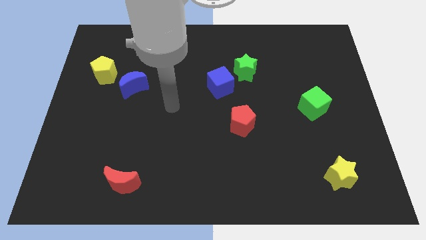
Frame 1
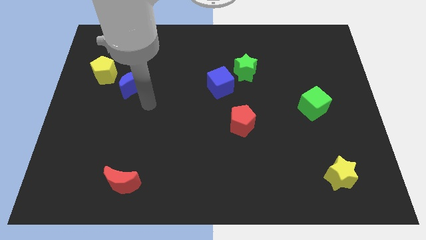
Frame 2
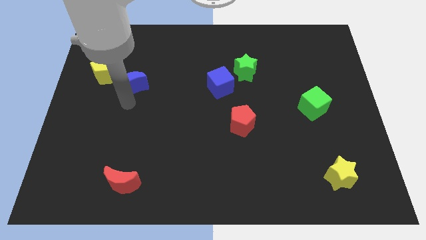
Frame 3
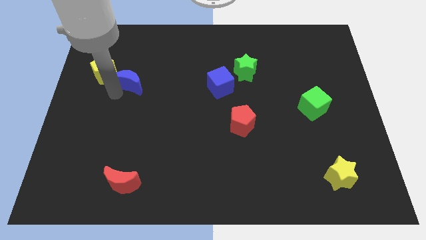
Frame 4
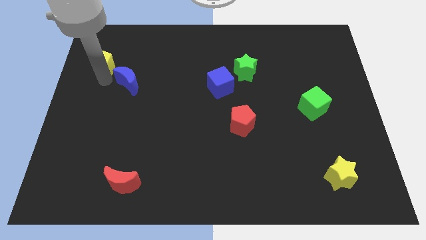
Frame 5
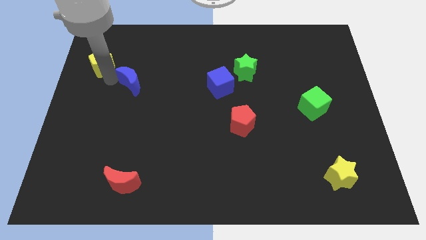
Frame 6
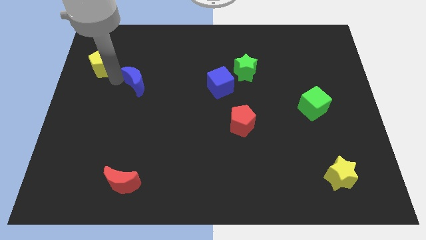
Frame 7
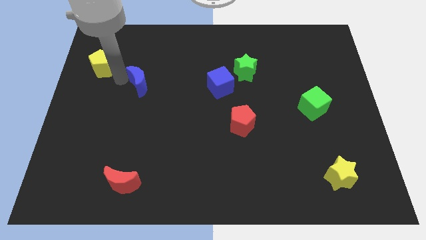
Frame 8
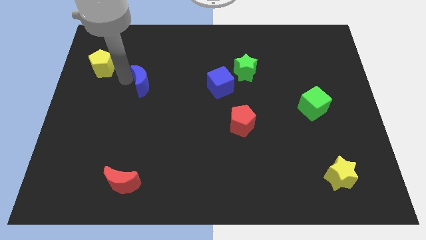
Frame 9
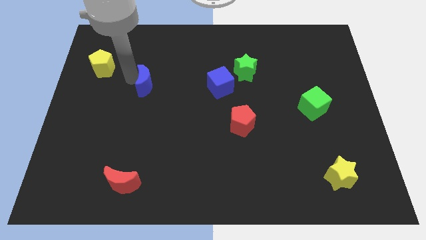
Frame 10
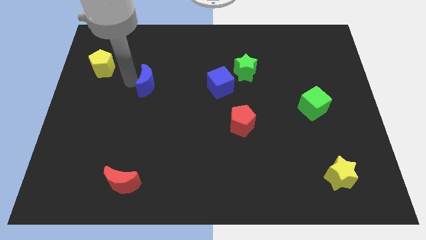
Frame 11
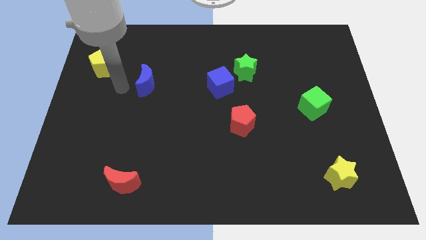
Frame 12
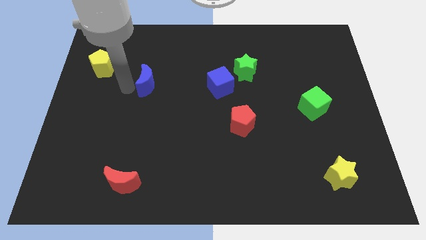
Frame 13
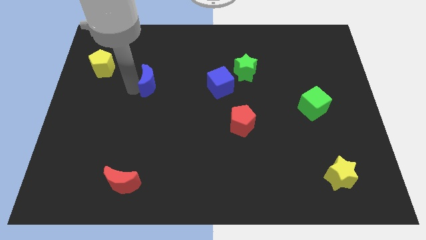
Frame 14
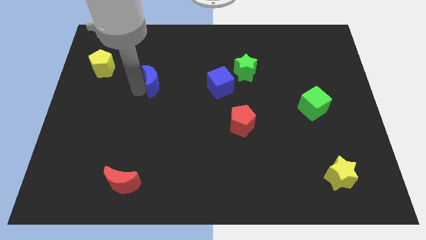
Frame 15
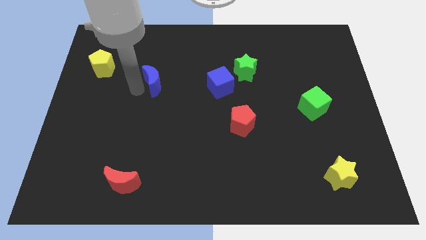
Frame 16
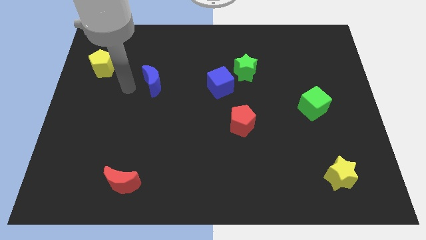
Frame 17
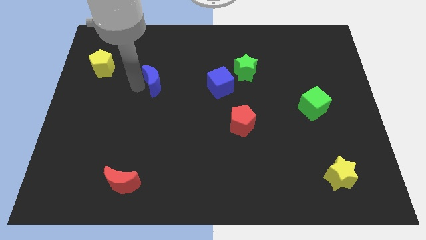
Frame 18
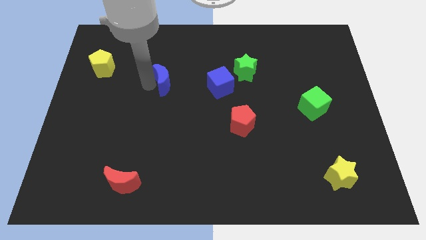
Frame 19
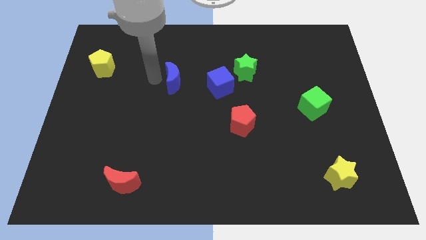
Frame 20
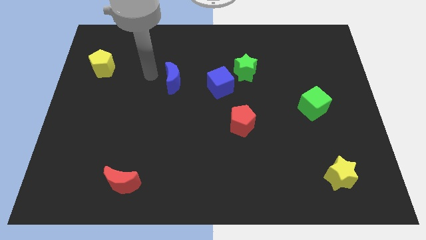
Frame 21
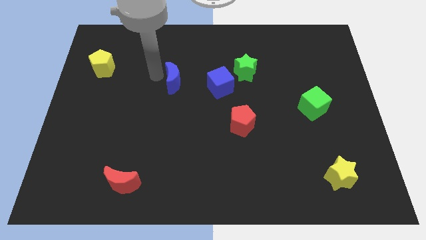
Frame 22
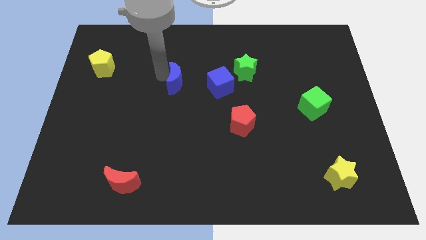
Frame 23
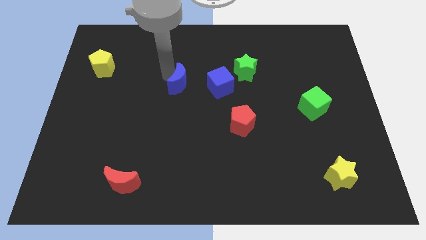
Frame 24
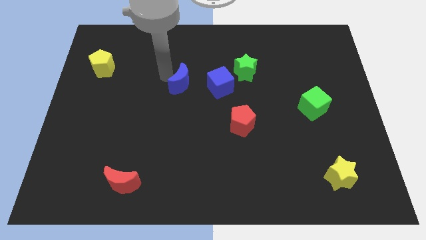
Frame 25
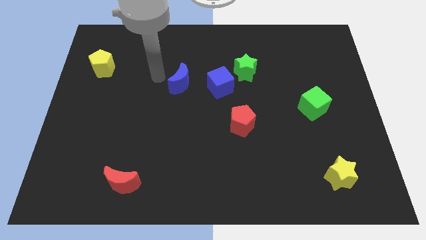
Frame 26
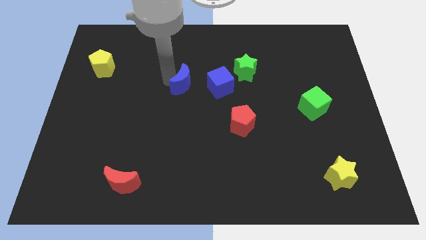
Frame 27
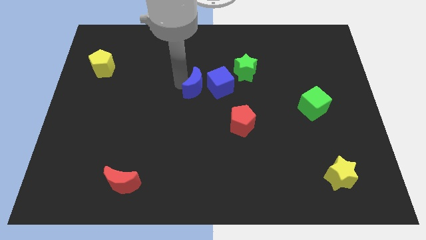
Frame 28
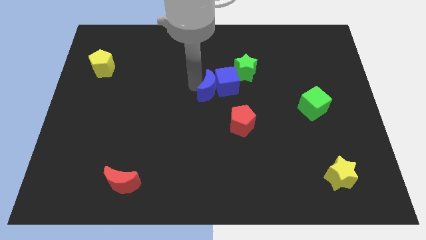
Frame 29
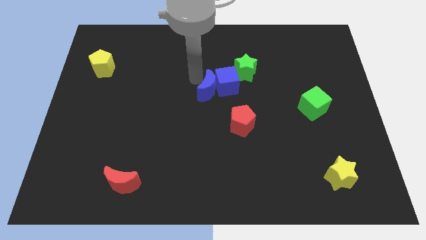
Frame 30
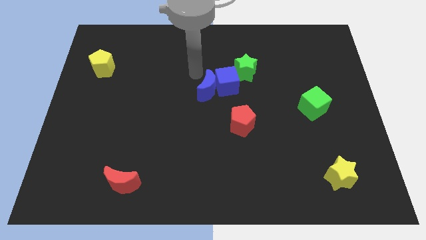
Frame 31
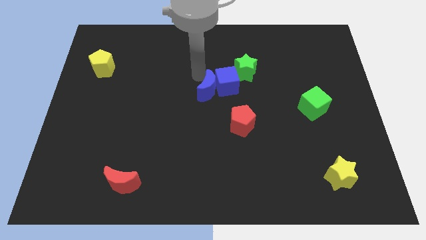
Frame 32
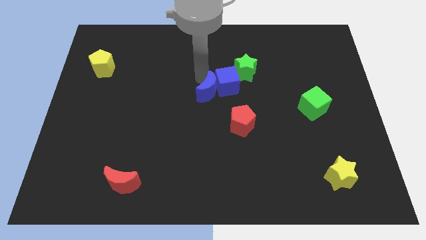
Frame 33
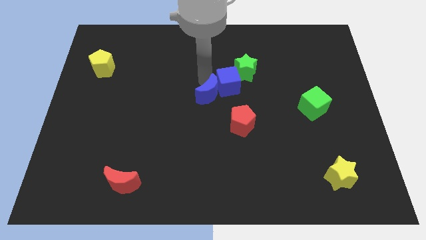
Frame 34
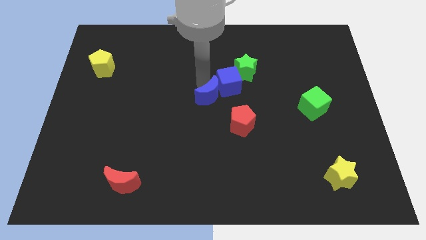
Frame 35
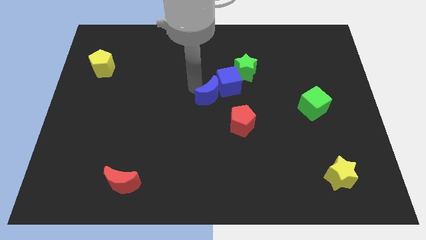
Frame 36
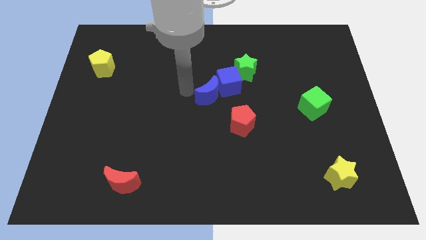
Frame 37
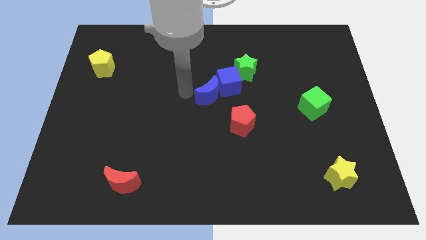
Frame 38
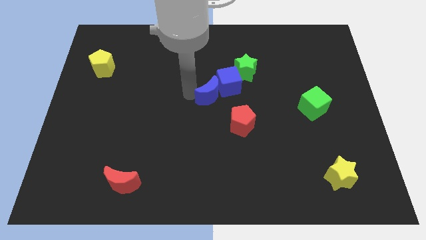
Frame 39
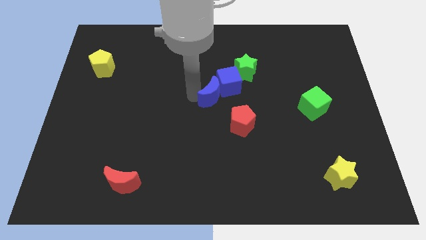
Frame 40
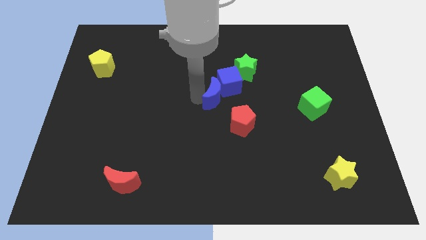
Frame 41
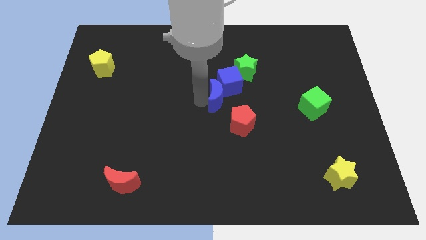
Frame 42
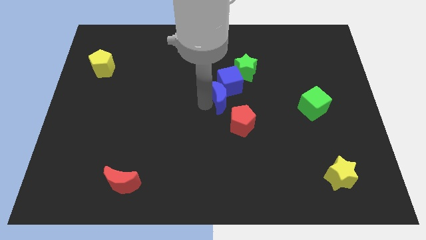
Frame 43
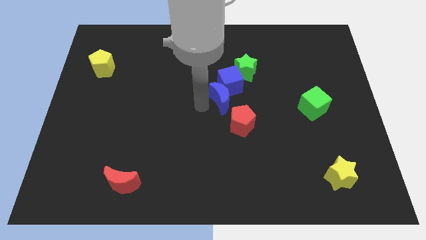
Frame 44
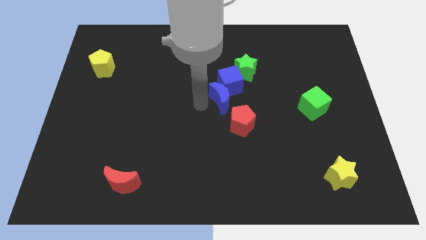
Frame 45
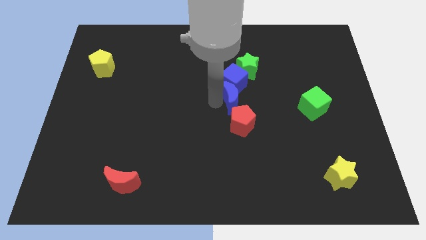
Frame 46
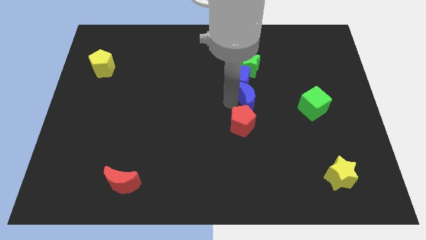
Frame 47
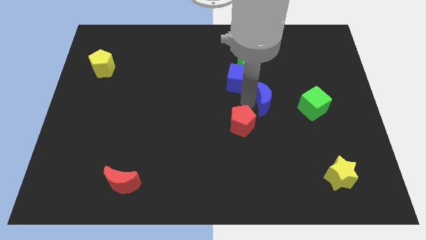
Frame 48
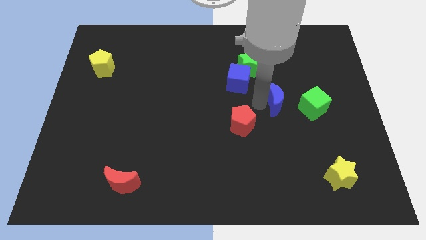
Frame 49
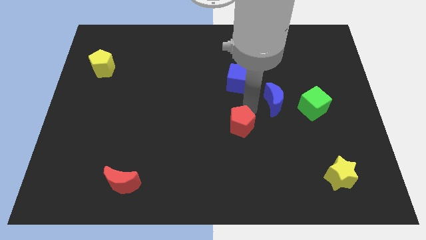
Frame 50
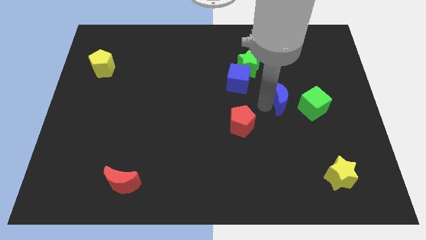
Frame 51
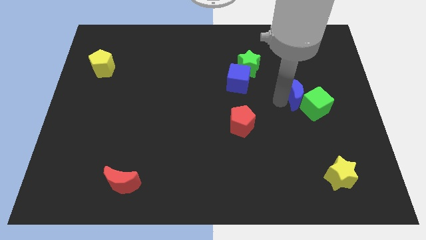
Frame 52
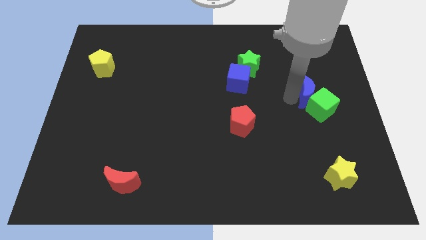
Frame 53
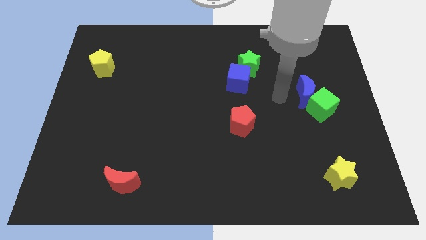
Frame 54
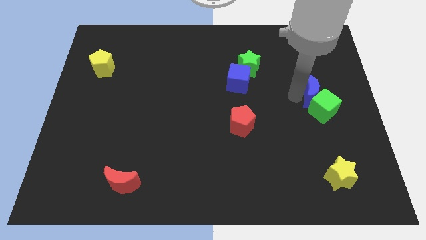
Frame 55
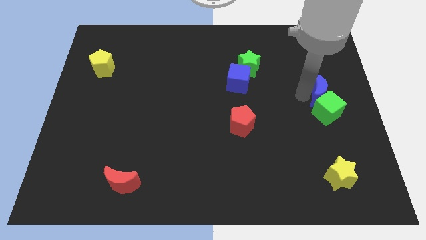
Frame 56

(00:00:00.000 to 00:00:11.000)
push the blue moon to the center right

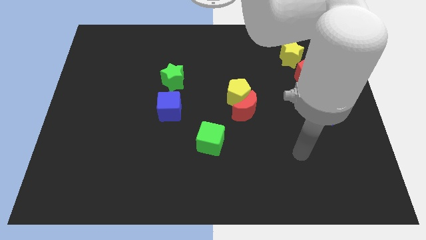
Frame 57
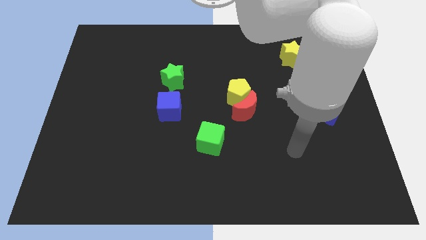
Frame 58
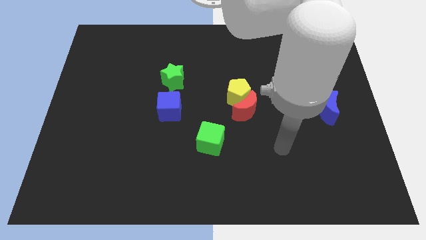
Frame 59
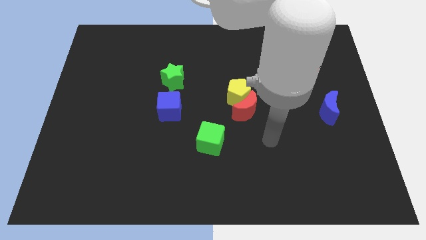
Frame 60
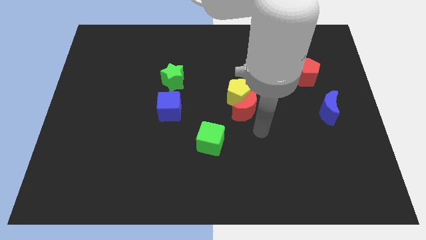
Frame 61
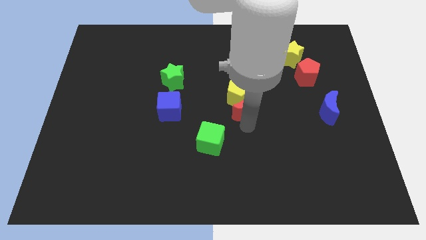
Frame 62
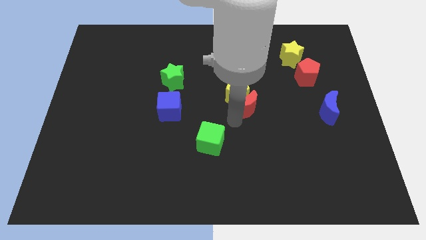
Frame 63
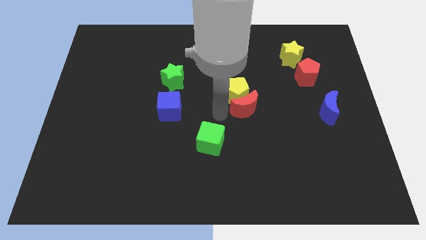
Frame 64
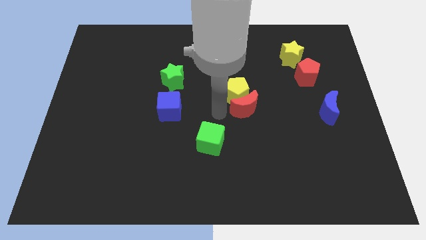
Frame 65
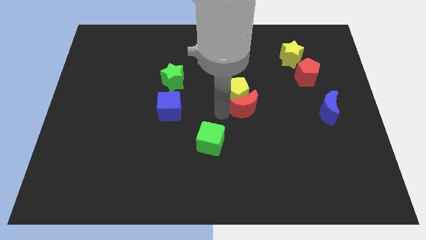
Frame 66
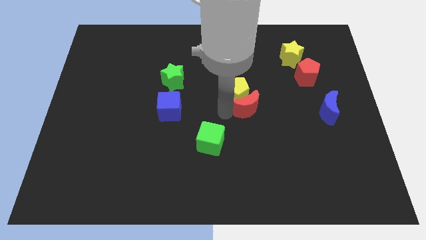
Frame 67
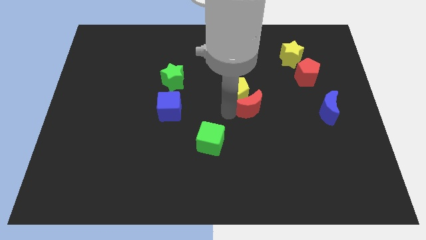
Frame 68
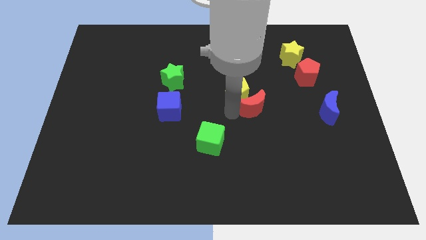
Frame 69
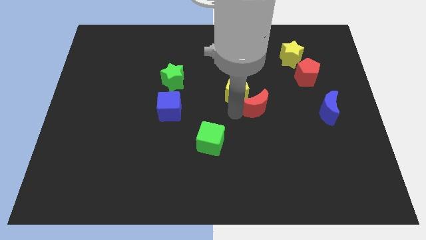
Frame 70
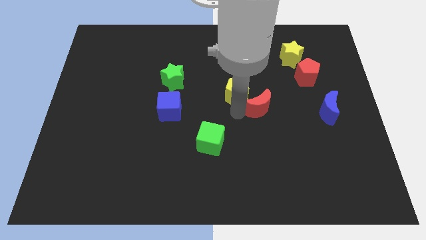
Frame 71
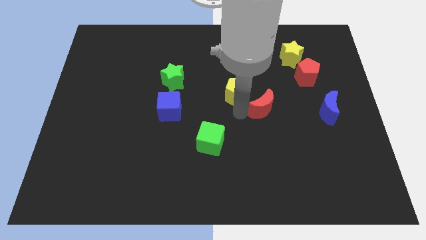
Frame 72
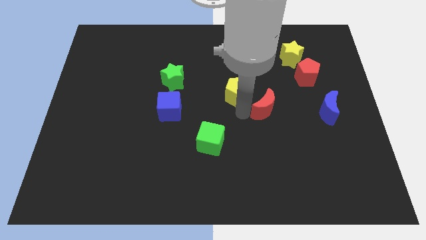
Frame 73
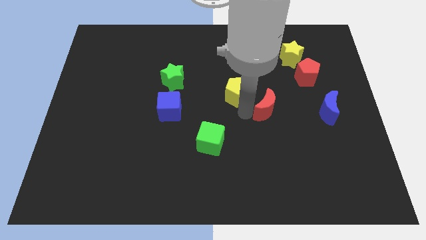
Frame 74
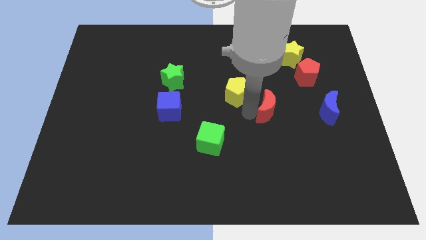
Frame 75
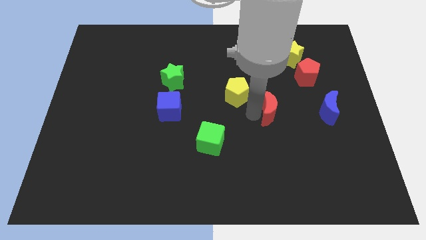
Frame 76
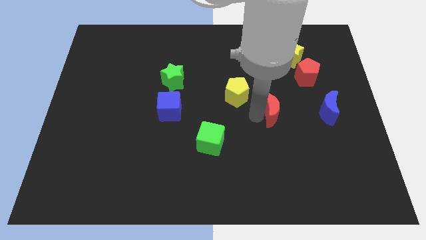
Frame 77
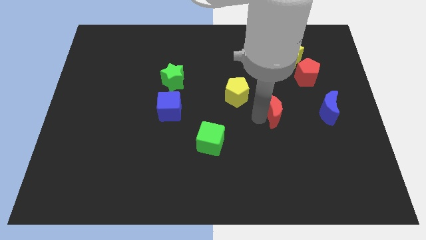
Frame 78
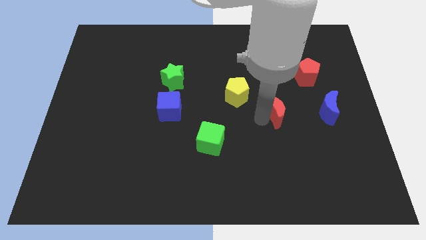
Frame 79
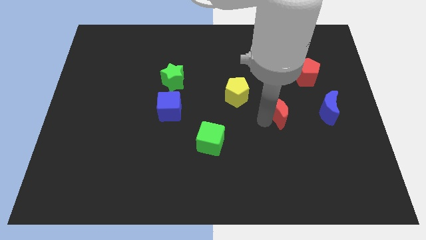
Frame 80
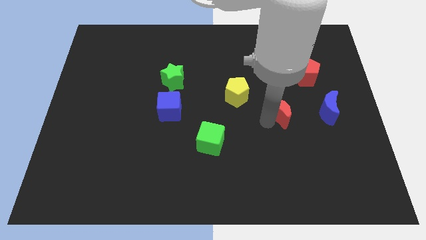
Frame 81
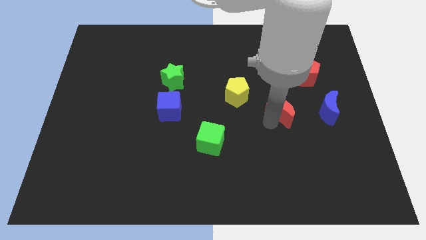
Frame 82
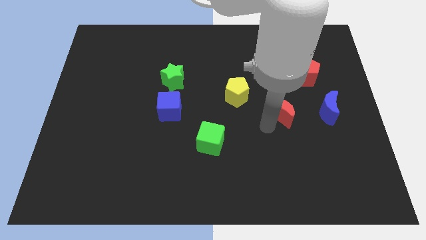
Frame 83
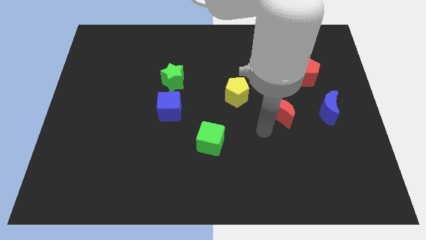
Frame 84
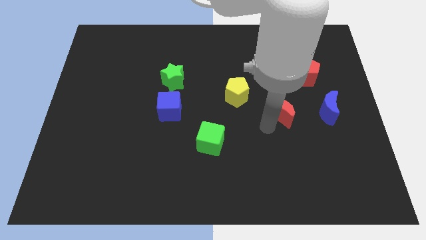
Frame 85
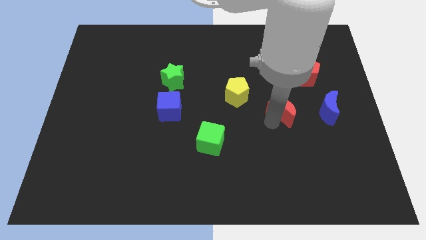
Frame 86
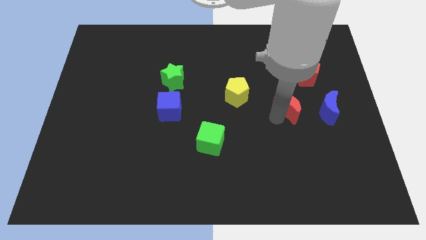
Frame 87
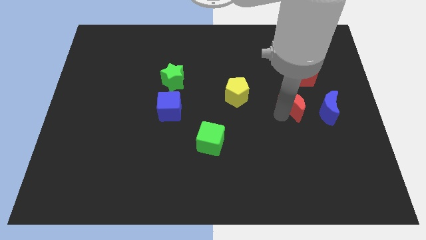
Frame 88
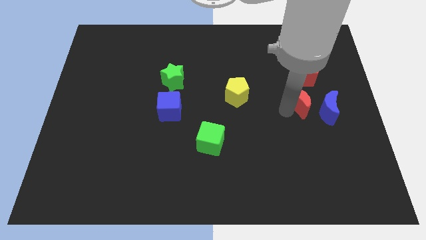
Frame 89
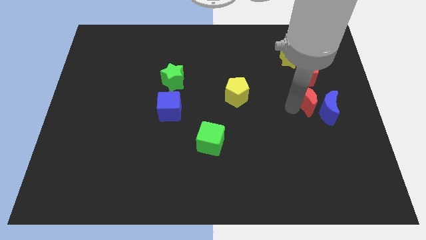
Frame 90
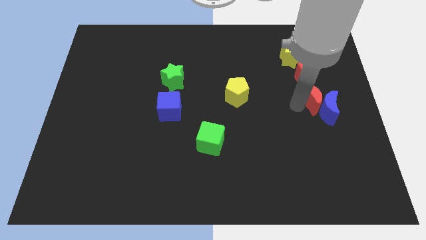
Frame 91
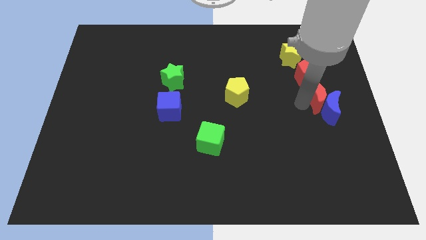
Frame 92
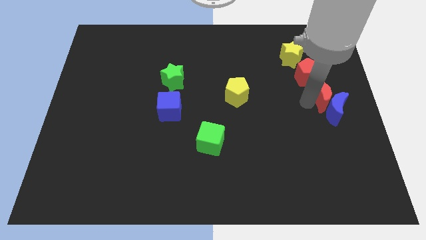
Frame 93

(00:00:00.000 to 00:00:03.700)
slide the red moon to the right side
